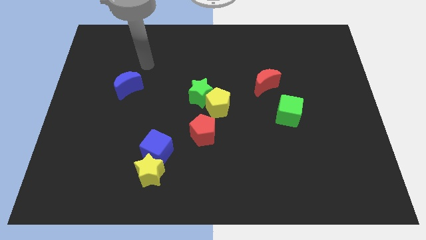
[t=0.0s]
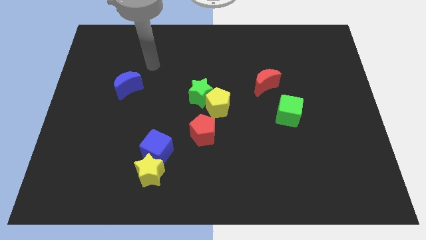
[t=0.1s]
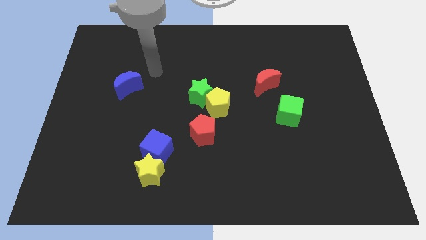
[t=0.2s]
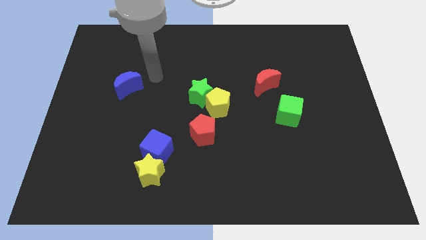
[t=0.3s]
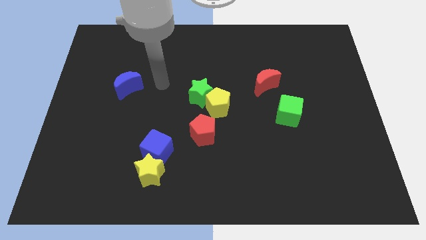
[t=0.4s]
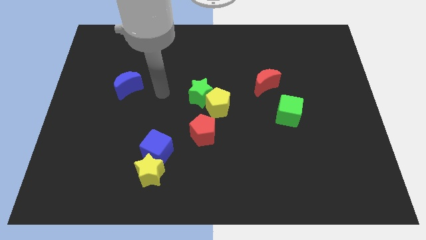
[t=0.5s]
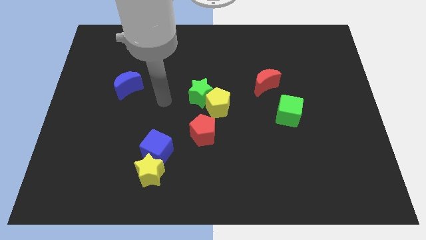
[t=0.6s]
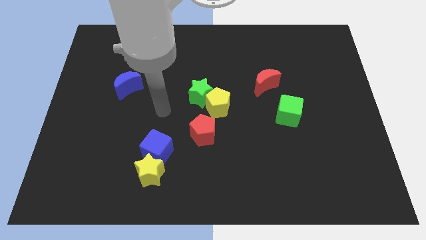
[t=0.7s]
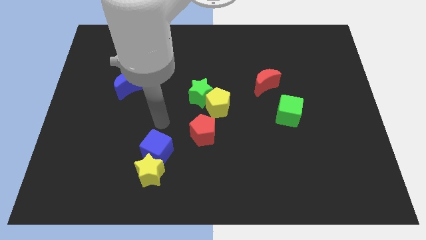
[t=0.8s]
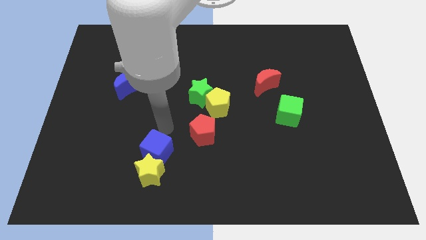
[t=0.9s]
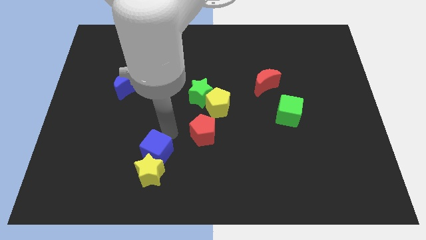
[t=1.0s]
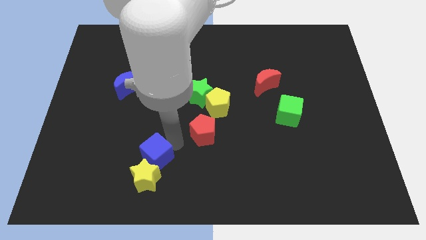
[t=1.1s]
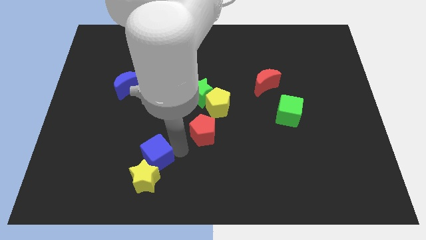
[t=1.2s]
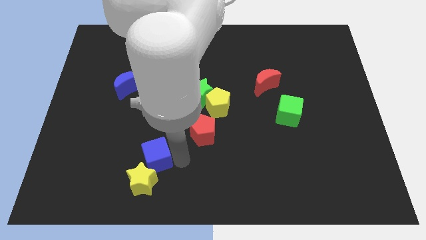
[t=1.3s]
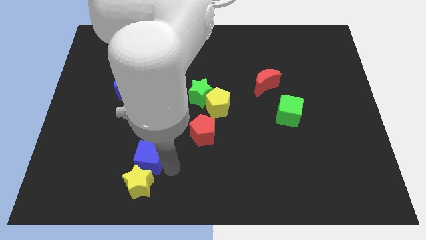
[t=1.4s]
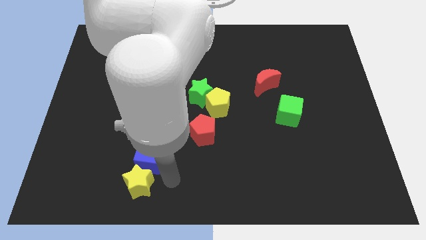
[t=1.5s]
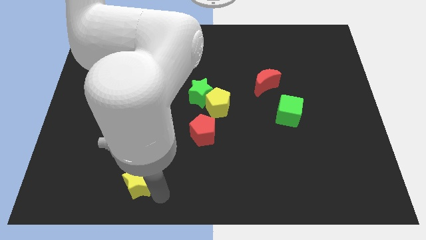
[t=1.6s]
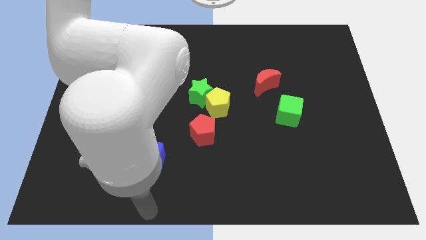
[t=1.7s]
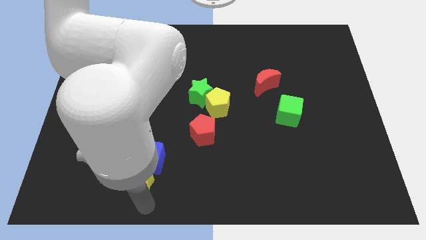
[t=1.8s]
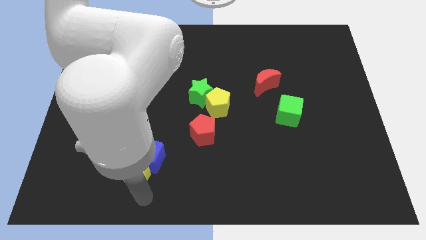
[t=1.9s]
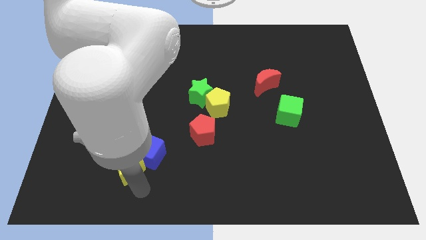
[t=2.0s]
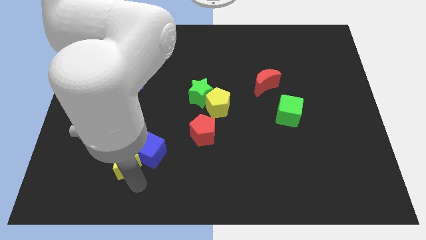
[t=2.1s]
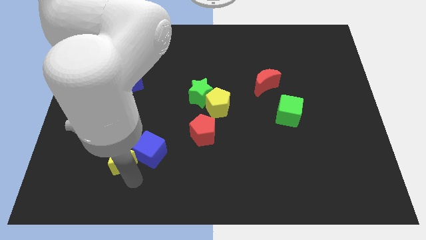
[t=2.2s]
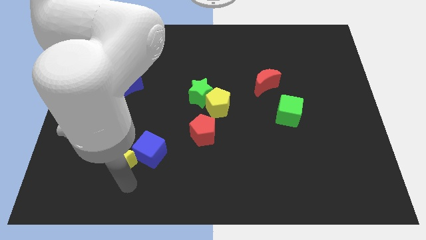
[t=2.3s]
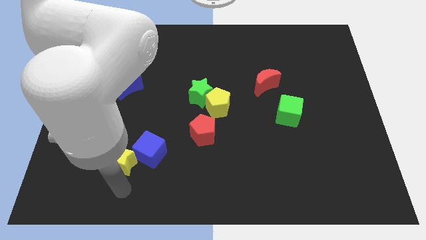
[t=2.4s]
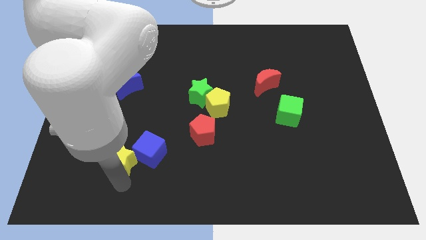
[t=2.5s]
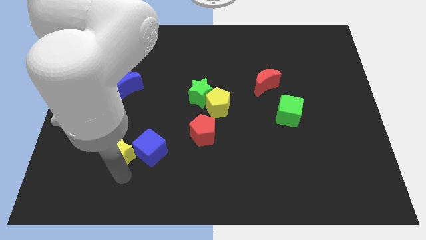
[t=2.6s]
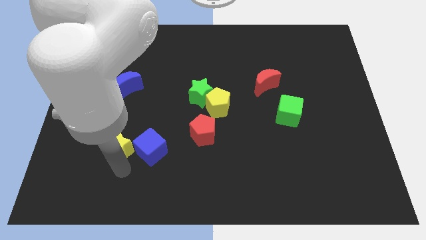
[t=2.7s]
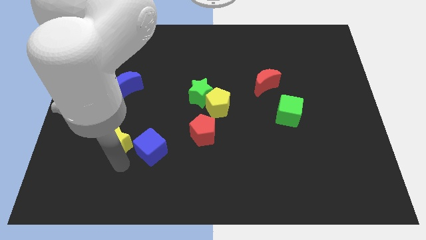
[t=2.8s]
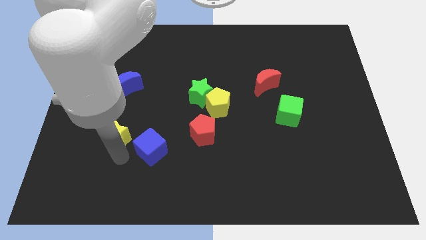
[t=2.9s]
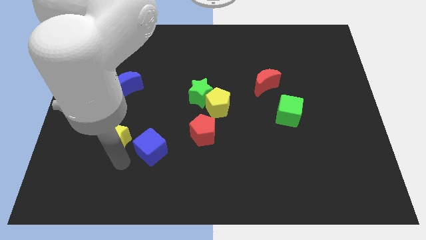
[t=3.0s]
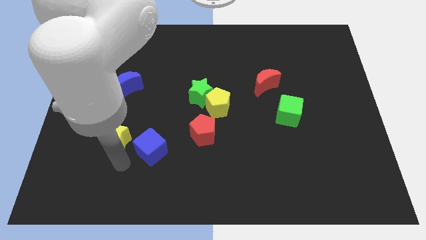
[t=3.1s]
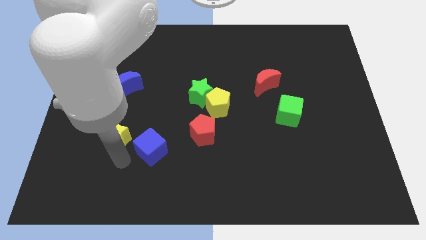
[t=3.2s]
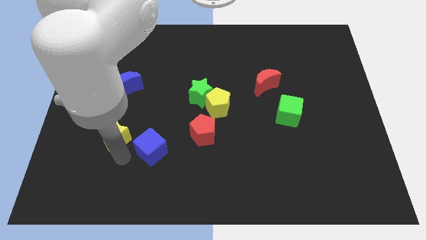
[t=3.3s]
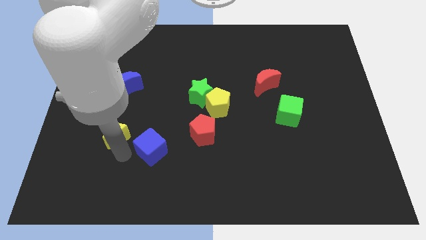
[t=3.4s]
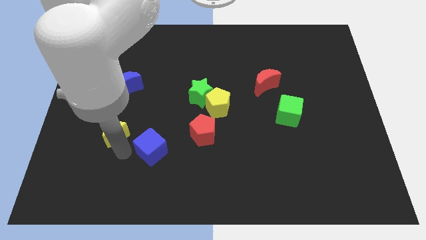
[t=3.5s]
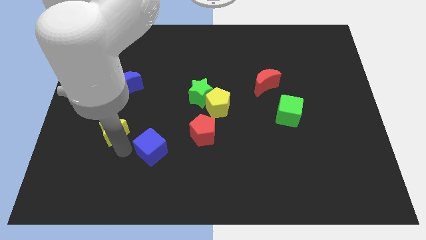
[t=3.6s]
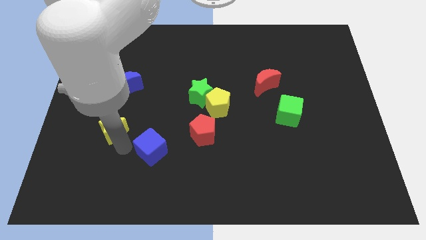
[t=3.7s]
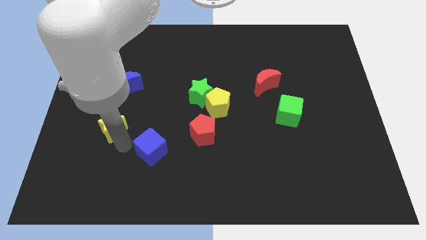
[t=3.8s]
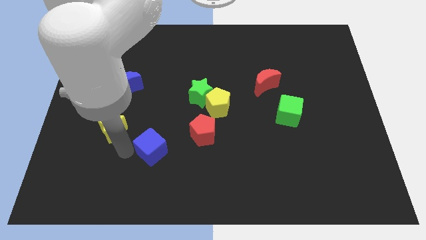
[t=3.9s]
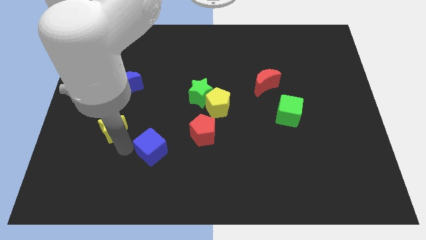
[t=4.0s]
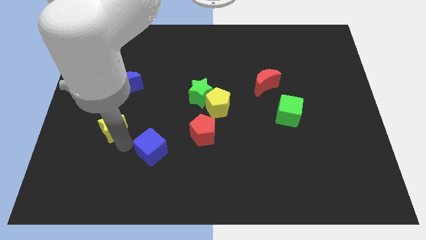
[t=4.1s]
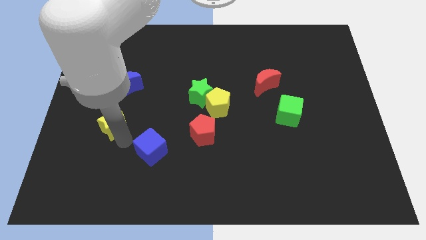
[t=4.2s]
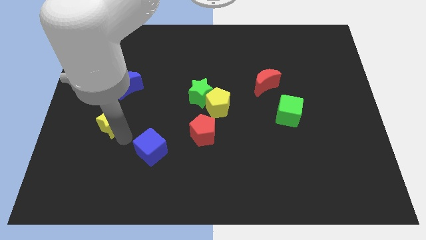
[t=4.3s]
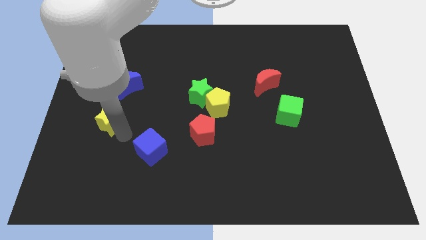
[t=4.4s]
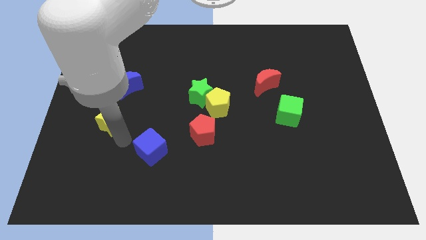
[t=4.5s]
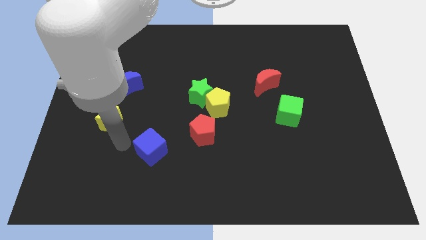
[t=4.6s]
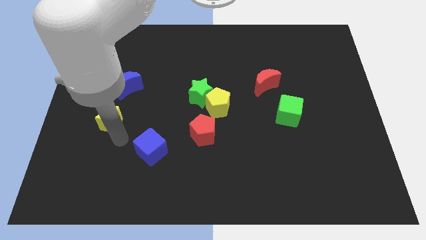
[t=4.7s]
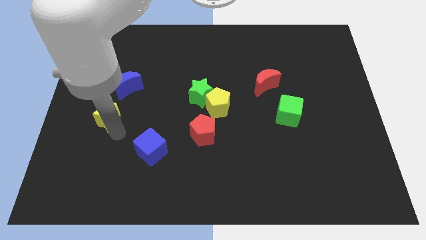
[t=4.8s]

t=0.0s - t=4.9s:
put the yellow star diagonally down and to the left of the blue moon

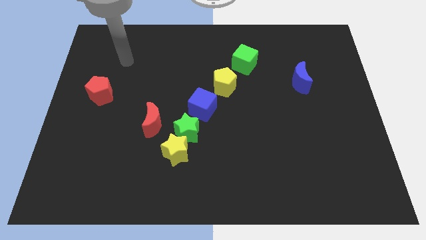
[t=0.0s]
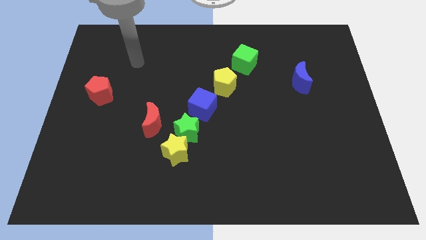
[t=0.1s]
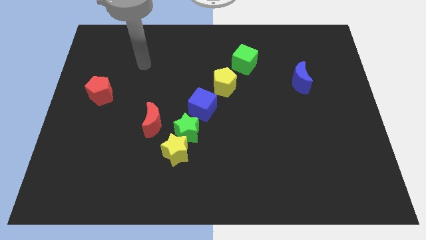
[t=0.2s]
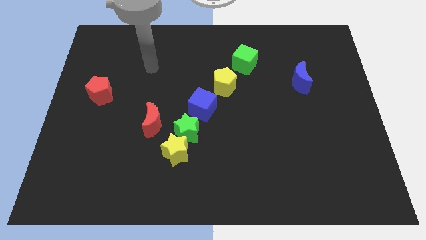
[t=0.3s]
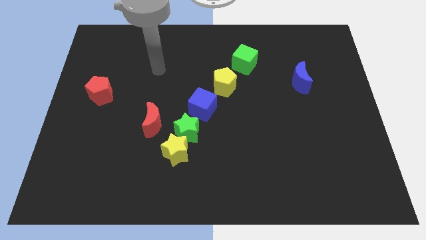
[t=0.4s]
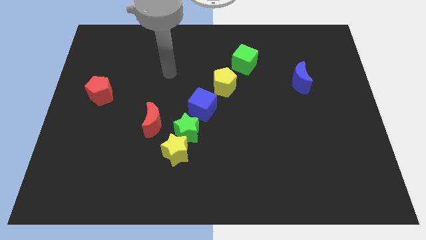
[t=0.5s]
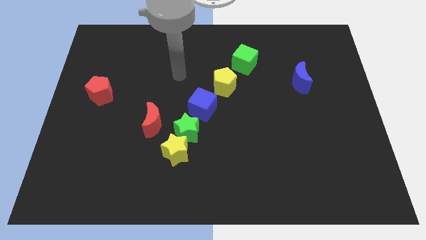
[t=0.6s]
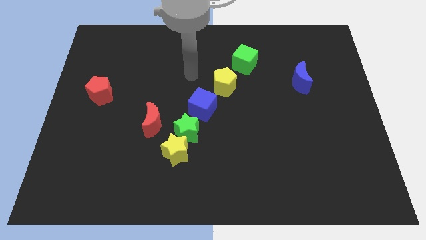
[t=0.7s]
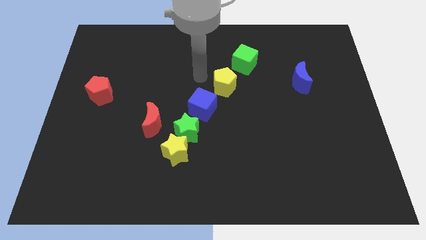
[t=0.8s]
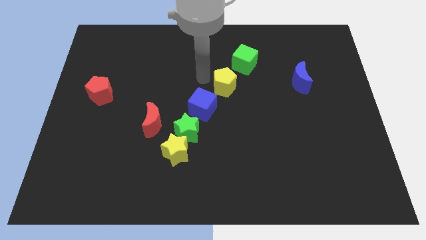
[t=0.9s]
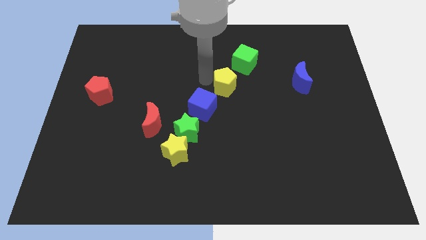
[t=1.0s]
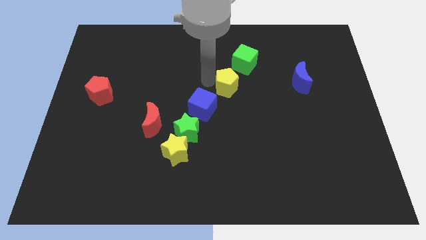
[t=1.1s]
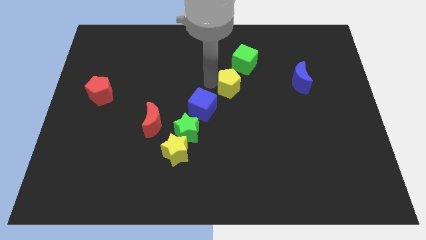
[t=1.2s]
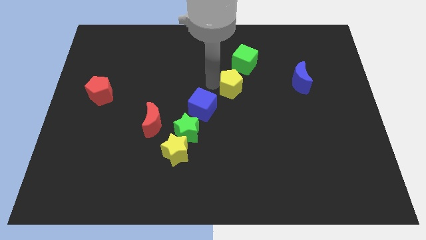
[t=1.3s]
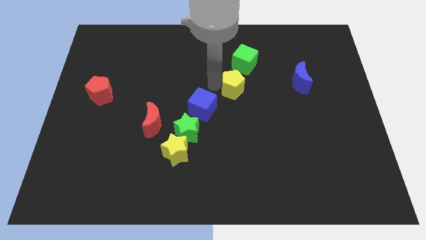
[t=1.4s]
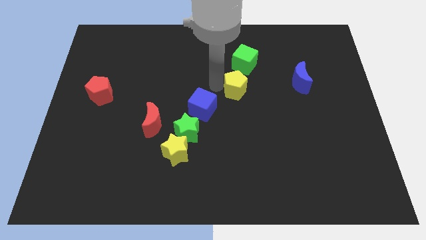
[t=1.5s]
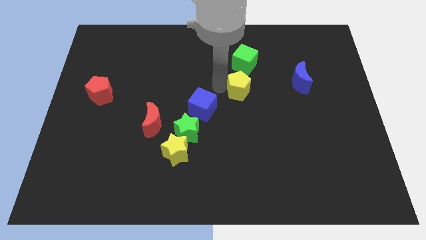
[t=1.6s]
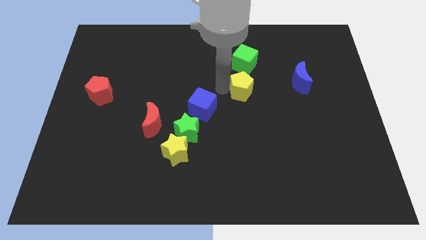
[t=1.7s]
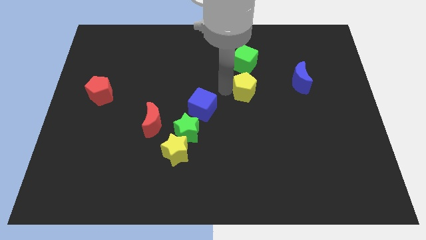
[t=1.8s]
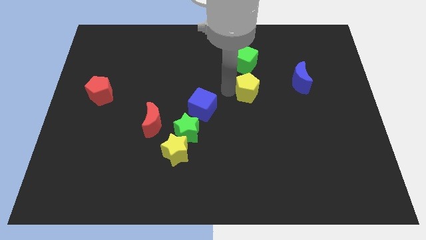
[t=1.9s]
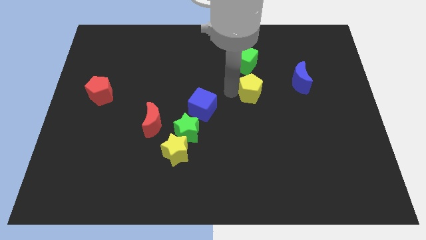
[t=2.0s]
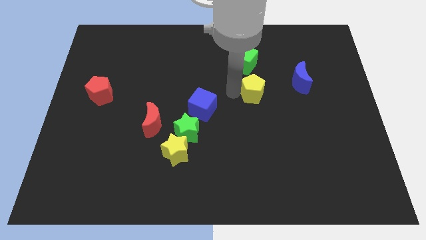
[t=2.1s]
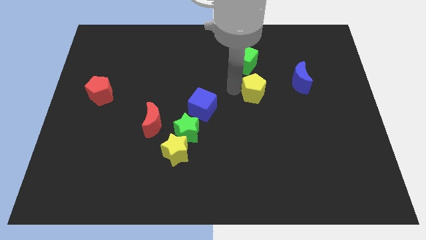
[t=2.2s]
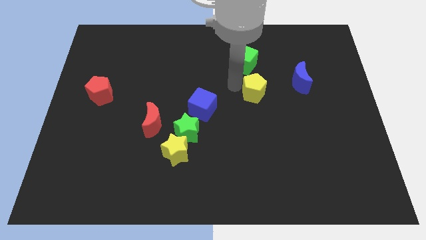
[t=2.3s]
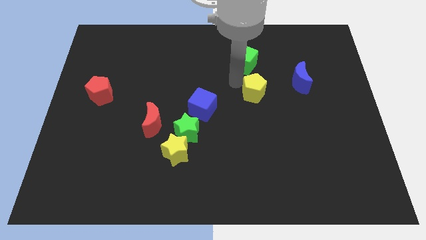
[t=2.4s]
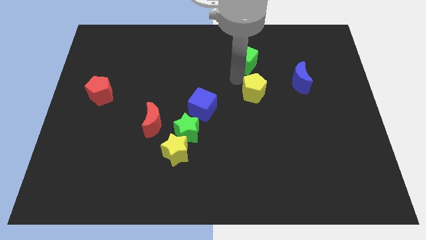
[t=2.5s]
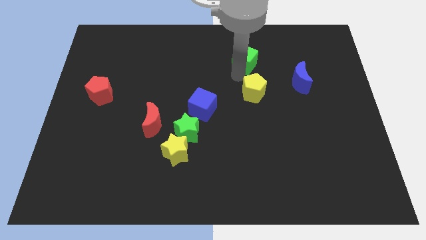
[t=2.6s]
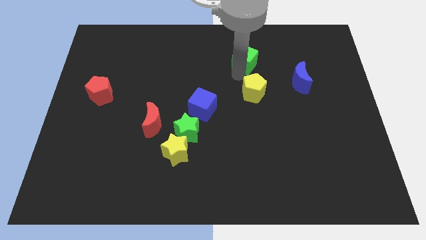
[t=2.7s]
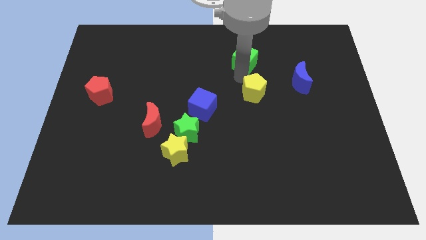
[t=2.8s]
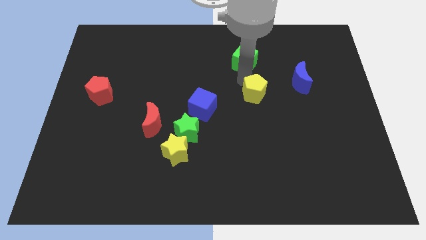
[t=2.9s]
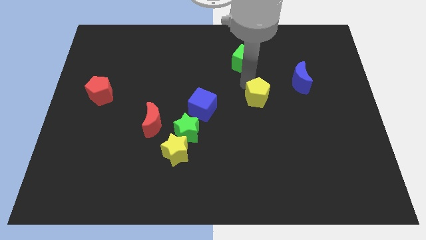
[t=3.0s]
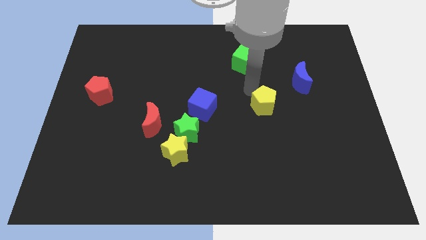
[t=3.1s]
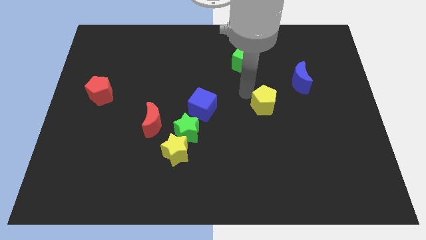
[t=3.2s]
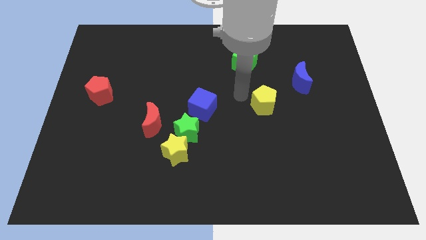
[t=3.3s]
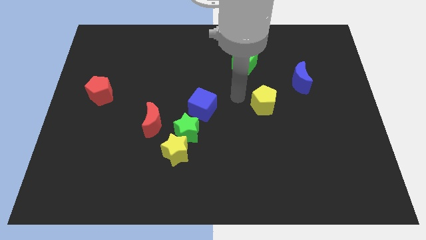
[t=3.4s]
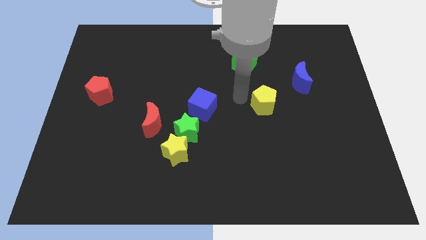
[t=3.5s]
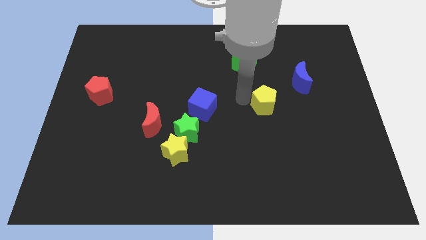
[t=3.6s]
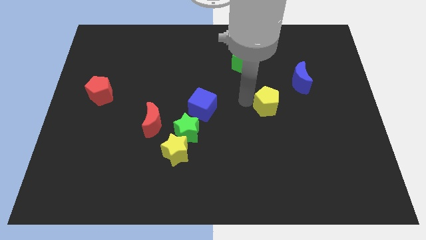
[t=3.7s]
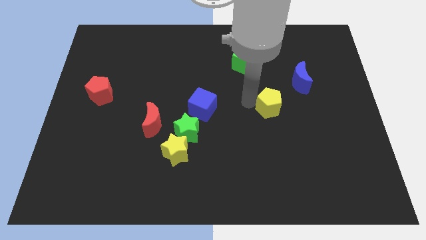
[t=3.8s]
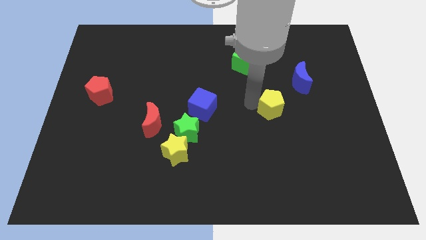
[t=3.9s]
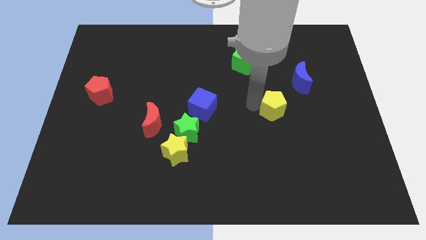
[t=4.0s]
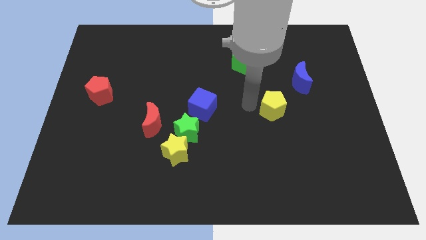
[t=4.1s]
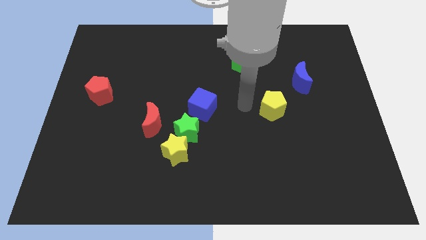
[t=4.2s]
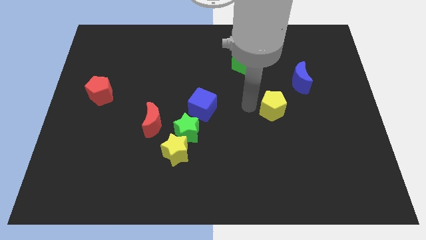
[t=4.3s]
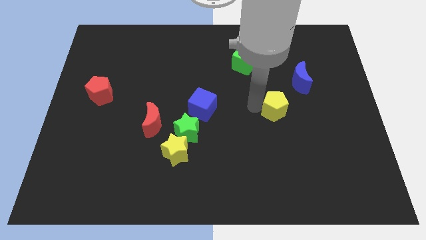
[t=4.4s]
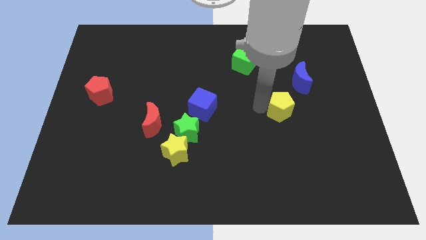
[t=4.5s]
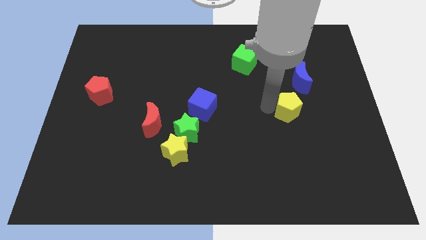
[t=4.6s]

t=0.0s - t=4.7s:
move the yellow pentagon to the bottom side of the blue moon
